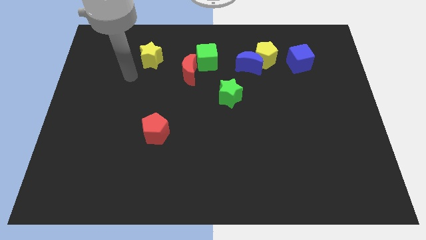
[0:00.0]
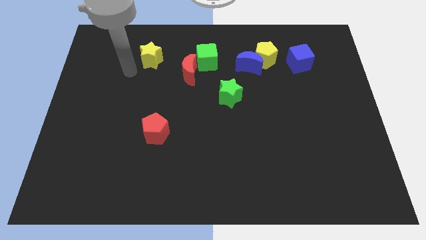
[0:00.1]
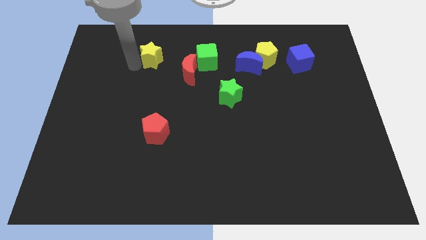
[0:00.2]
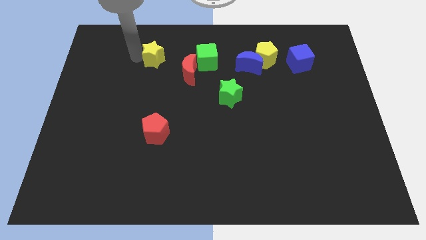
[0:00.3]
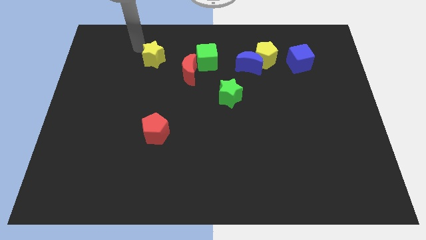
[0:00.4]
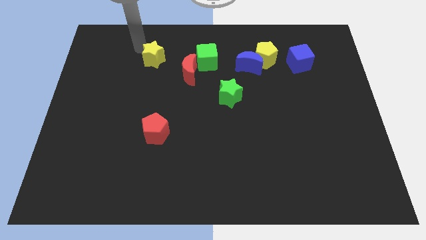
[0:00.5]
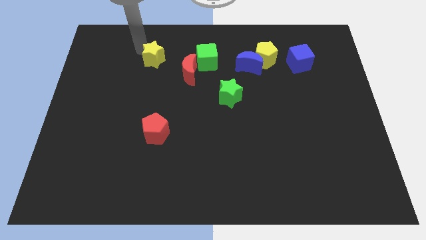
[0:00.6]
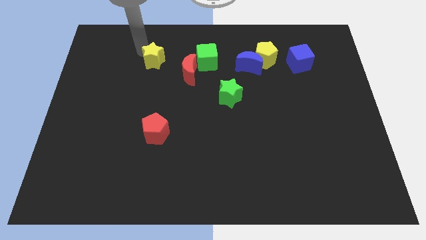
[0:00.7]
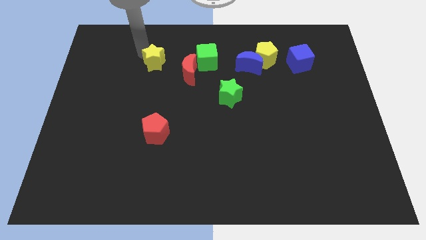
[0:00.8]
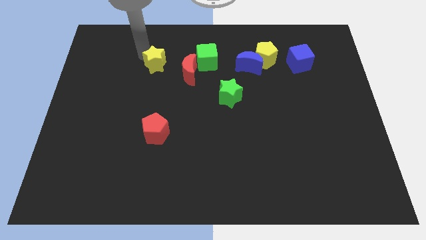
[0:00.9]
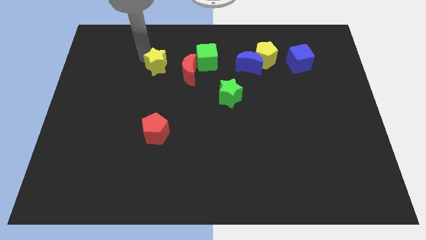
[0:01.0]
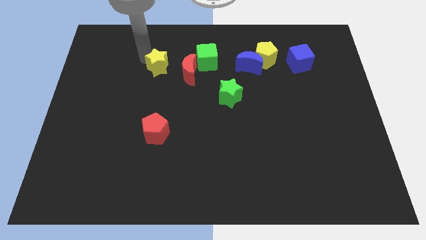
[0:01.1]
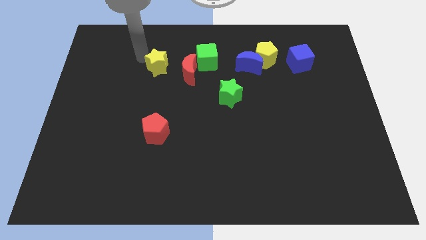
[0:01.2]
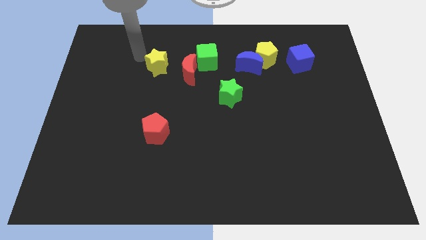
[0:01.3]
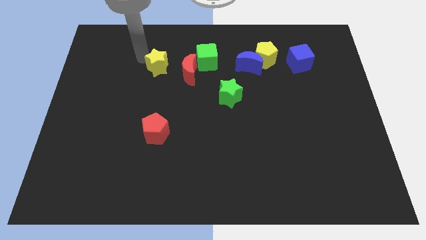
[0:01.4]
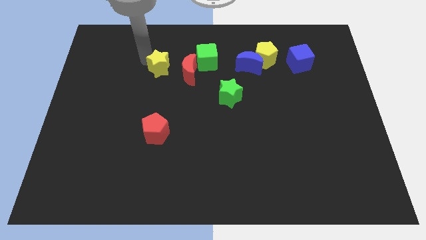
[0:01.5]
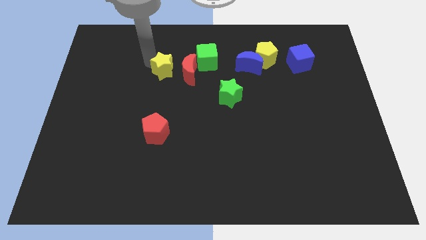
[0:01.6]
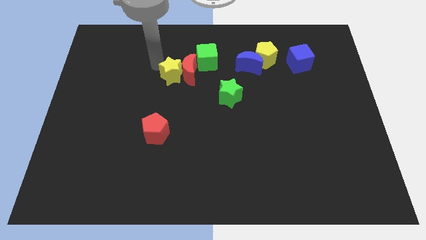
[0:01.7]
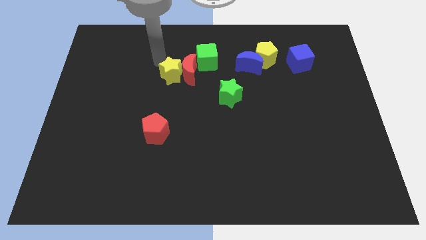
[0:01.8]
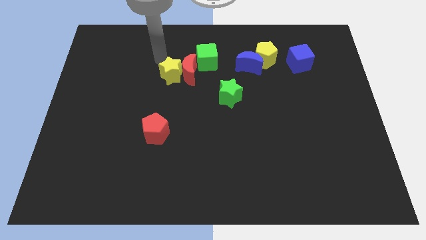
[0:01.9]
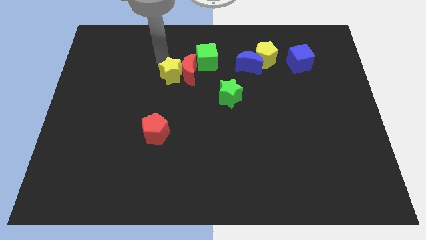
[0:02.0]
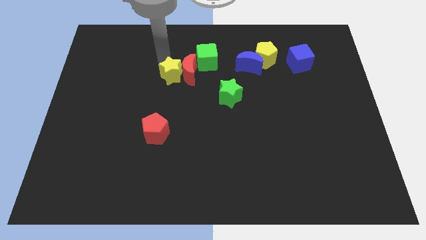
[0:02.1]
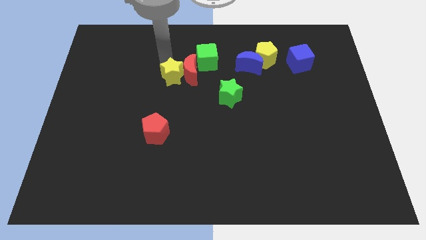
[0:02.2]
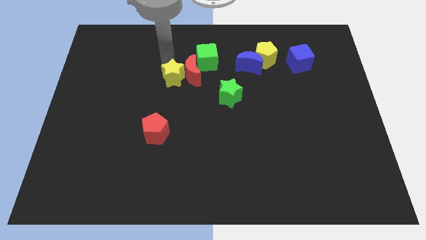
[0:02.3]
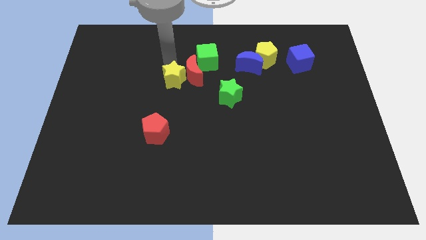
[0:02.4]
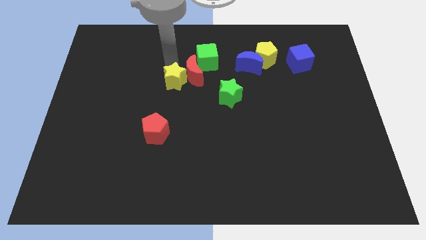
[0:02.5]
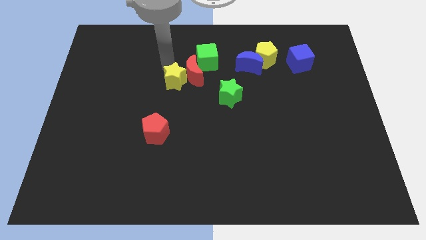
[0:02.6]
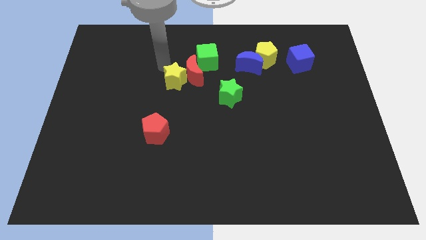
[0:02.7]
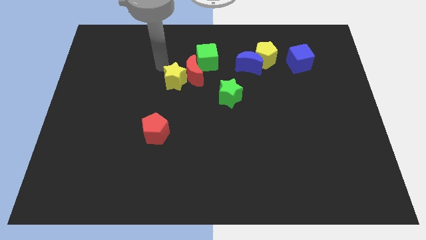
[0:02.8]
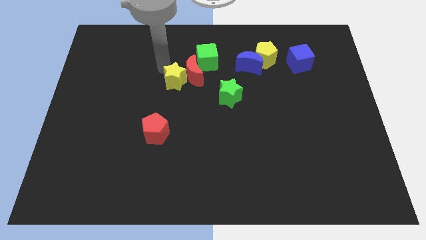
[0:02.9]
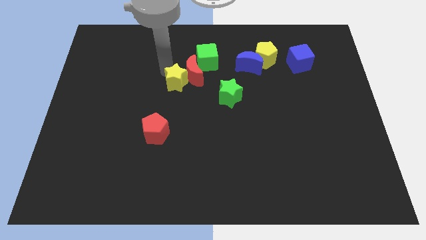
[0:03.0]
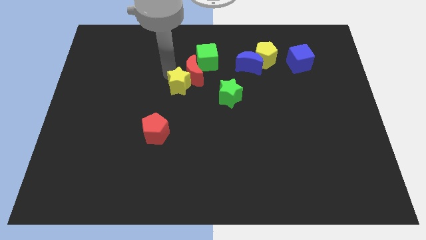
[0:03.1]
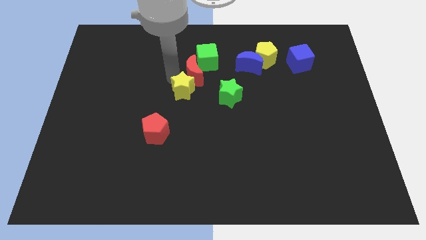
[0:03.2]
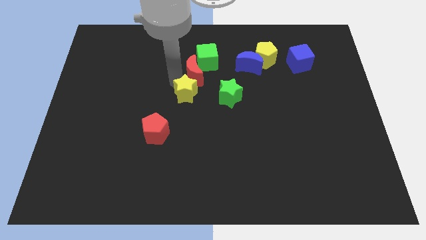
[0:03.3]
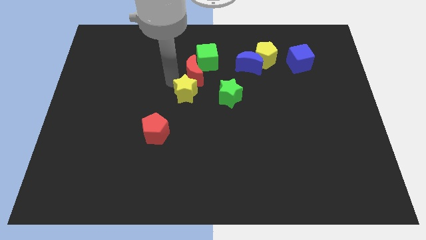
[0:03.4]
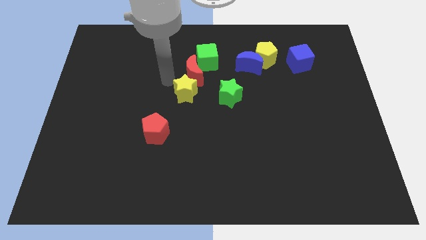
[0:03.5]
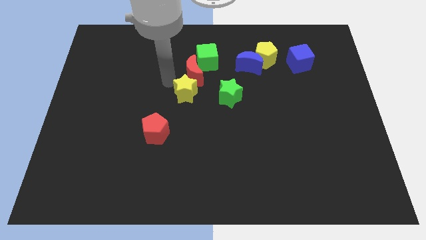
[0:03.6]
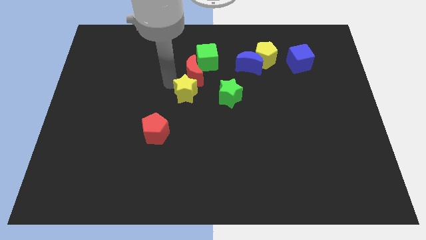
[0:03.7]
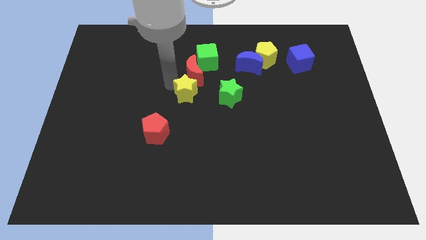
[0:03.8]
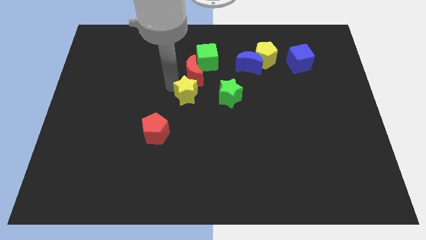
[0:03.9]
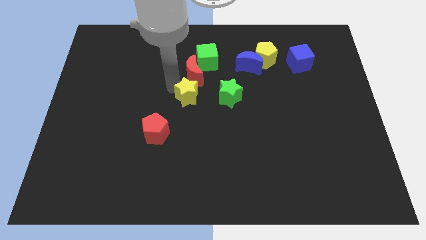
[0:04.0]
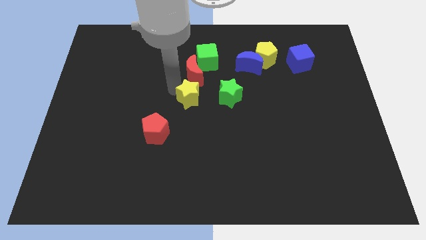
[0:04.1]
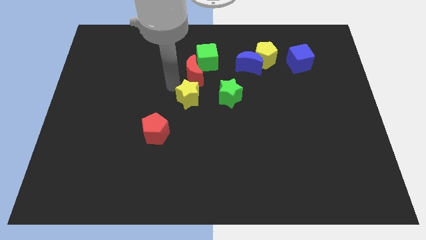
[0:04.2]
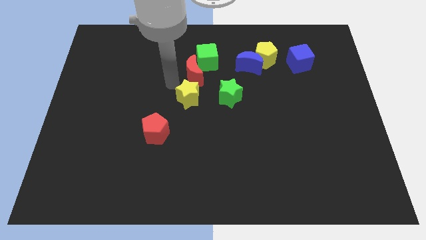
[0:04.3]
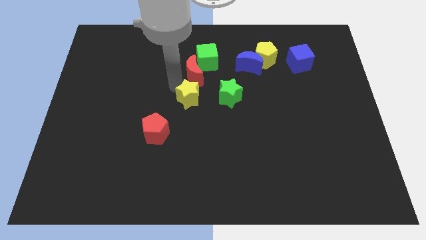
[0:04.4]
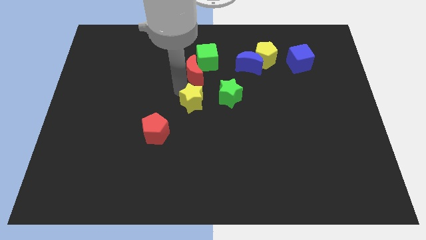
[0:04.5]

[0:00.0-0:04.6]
move the yellow star diagonally down and to the left of the green star

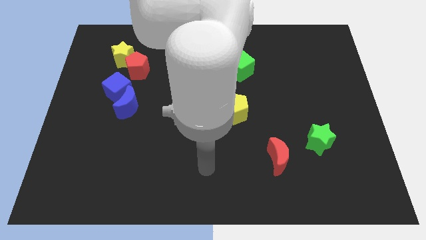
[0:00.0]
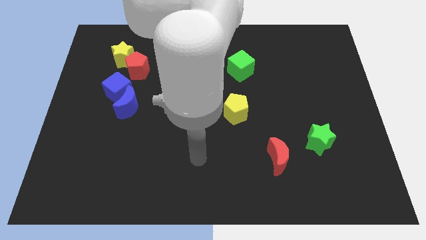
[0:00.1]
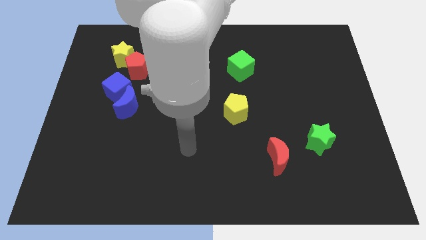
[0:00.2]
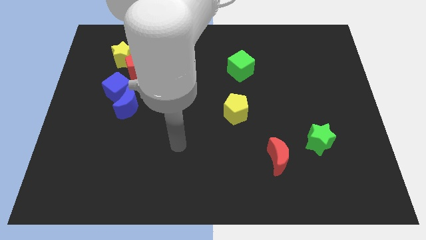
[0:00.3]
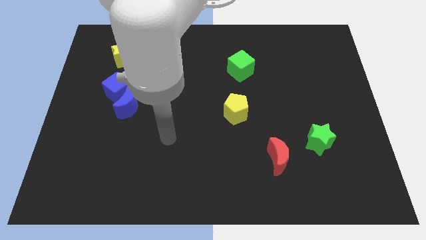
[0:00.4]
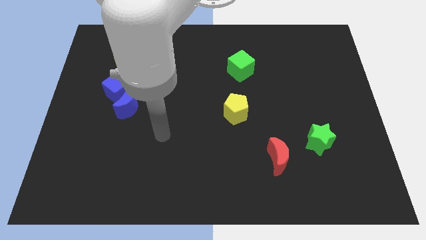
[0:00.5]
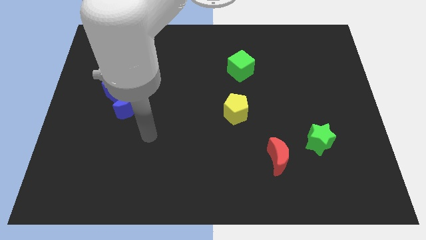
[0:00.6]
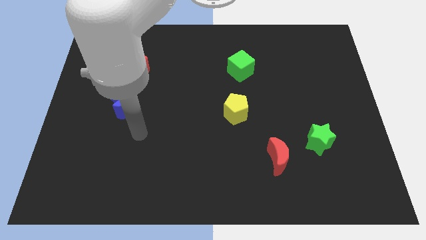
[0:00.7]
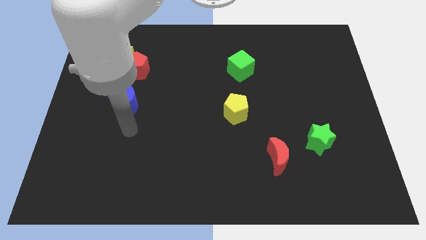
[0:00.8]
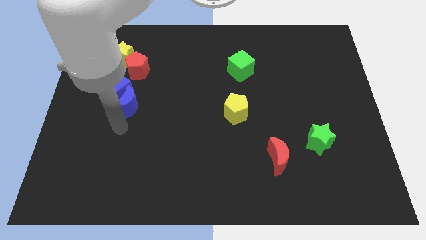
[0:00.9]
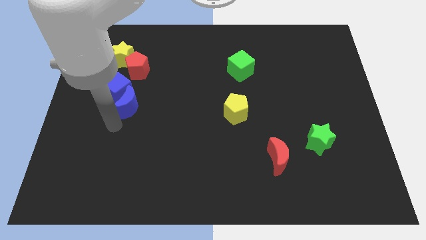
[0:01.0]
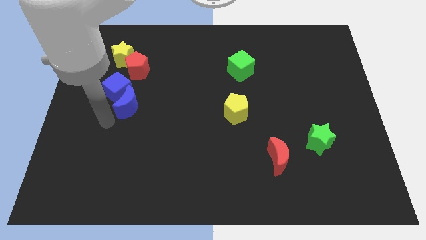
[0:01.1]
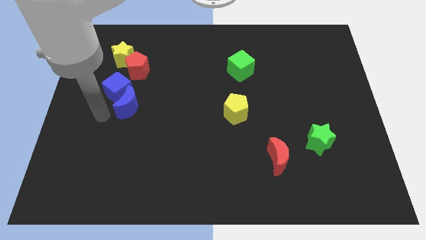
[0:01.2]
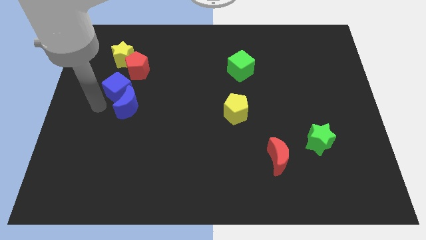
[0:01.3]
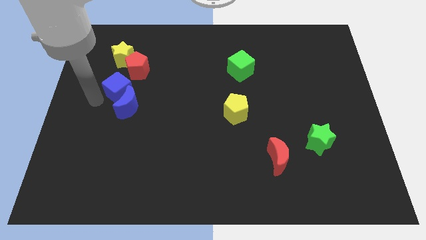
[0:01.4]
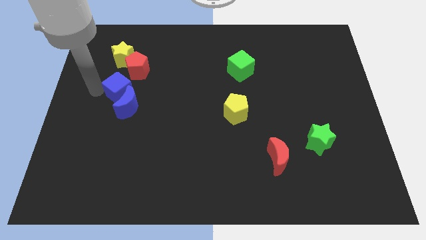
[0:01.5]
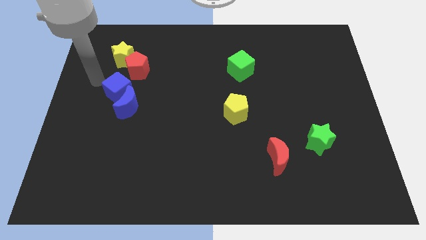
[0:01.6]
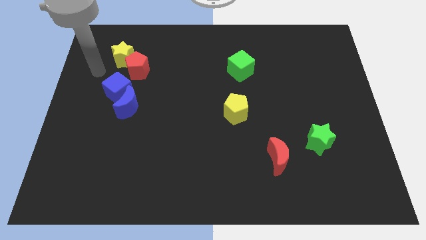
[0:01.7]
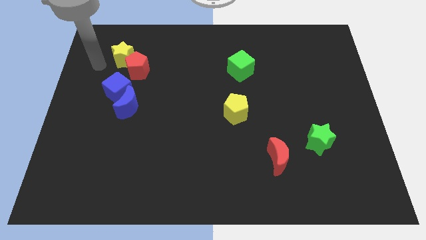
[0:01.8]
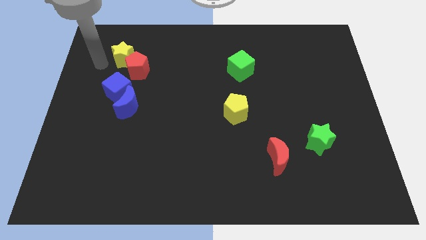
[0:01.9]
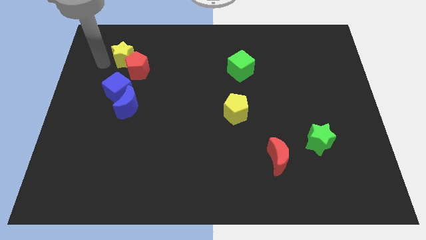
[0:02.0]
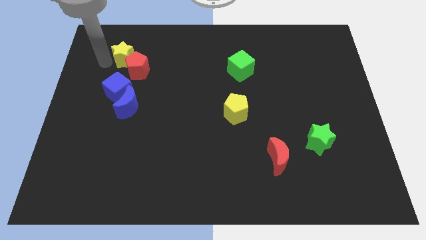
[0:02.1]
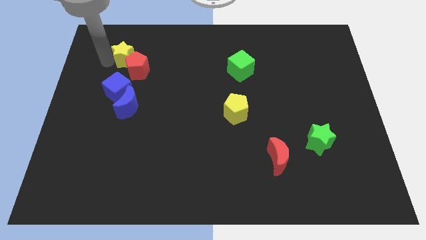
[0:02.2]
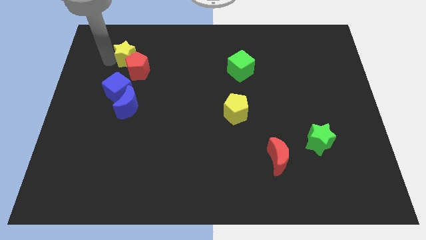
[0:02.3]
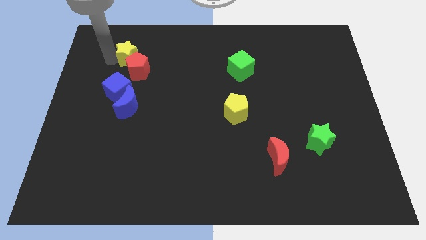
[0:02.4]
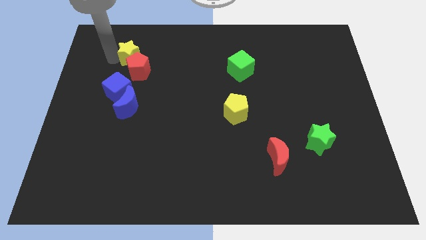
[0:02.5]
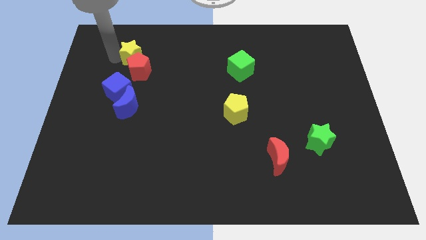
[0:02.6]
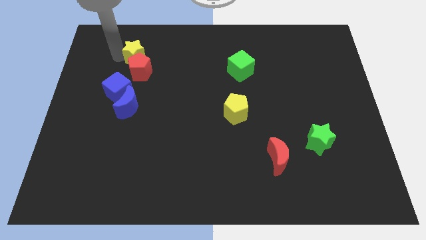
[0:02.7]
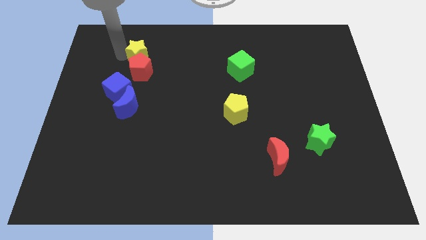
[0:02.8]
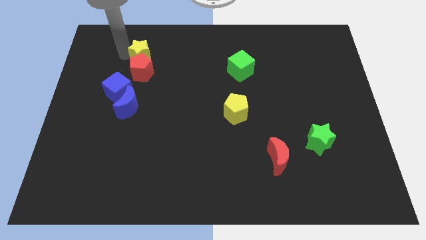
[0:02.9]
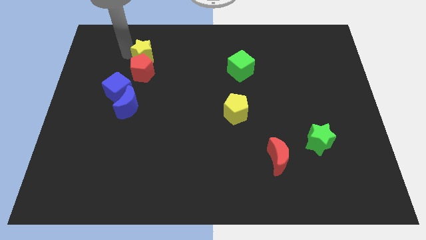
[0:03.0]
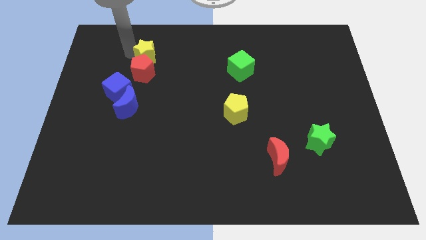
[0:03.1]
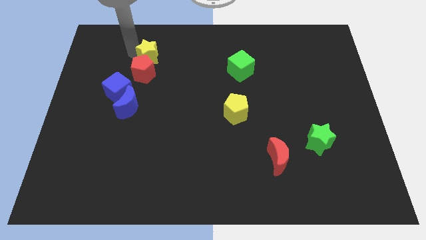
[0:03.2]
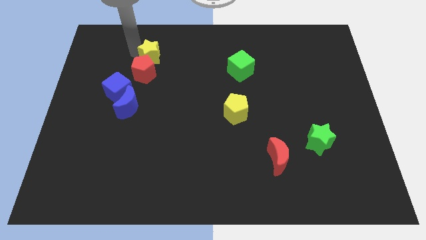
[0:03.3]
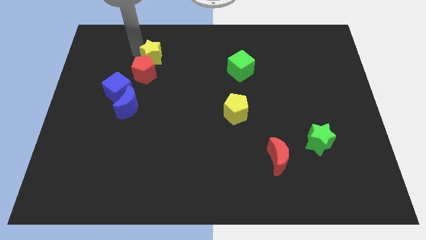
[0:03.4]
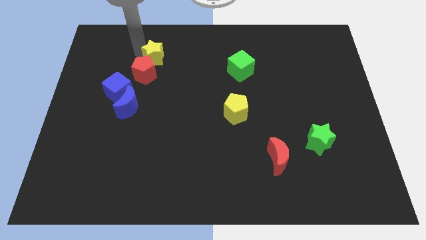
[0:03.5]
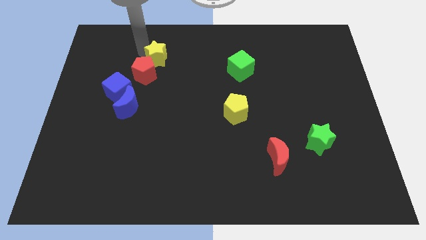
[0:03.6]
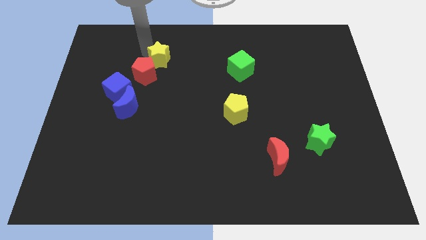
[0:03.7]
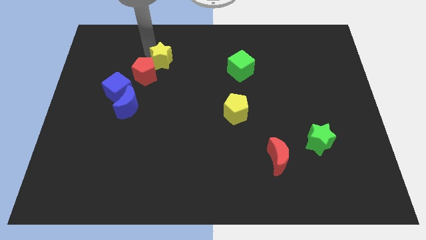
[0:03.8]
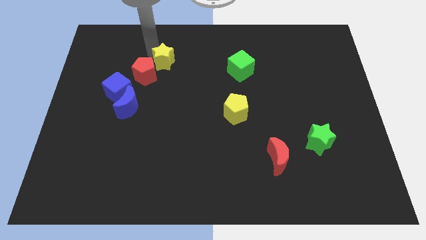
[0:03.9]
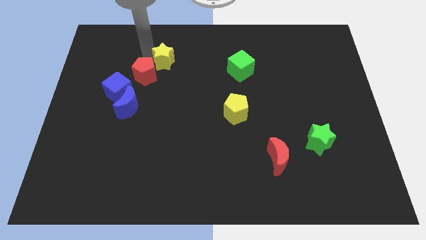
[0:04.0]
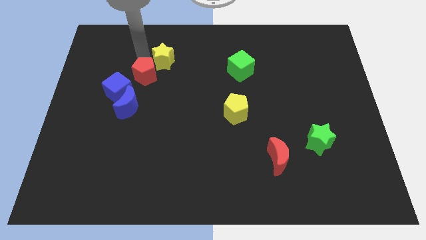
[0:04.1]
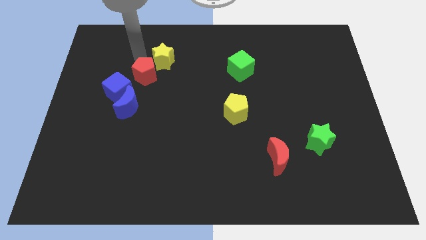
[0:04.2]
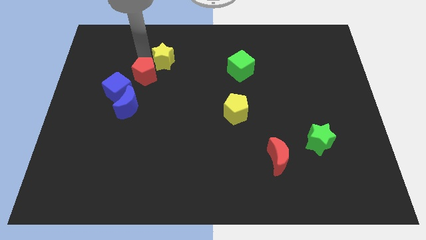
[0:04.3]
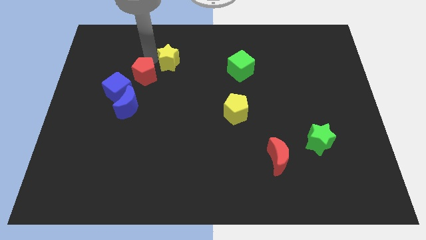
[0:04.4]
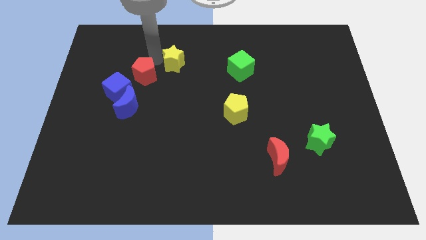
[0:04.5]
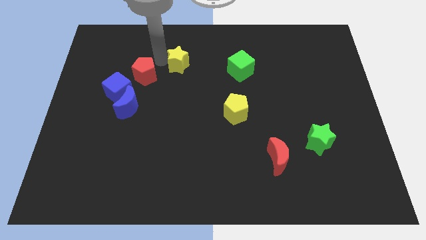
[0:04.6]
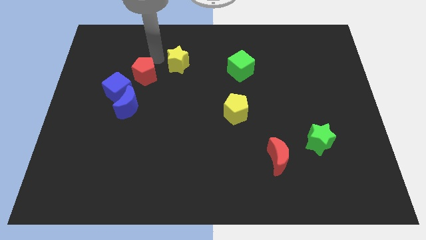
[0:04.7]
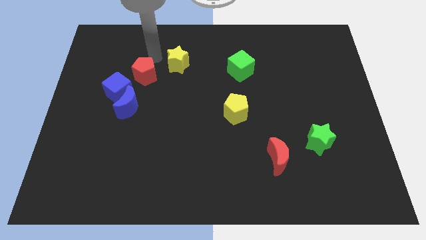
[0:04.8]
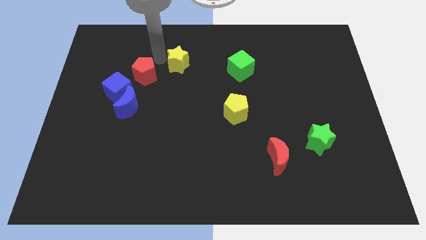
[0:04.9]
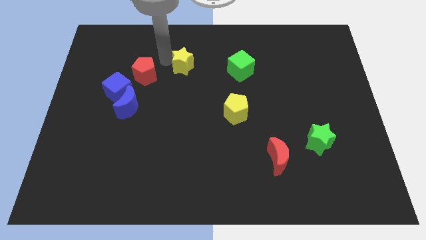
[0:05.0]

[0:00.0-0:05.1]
move the yellow star to the left side of the green cube
